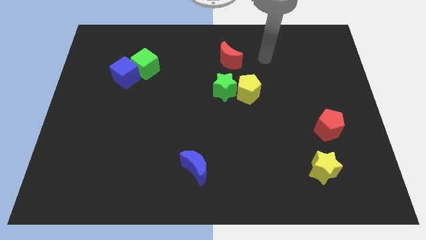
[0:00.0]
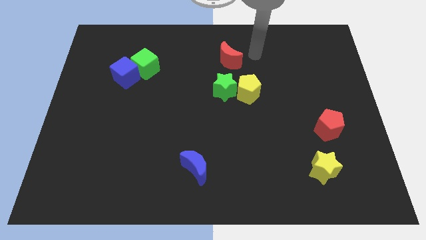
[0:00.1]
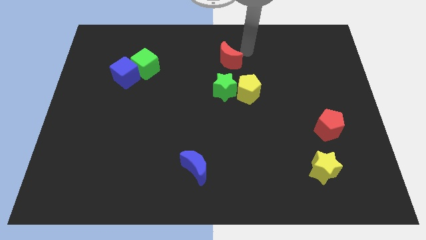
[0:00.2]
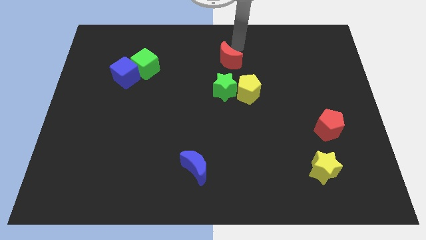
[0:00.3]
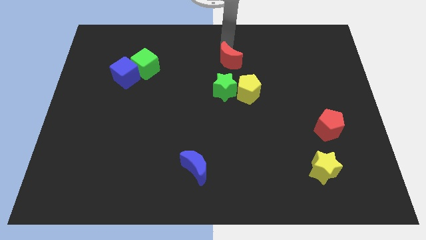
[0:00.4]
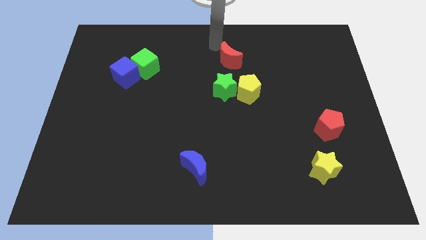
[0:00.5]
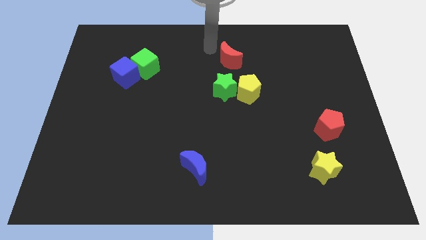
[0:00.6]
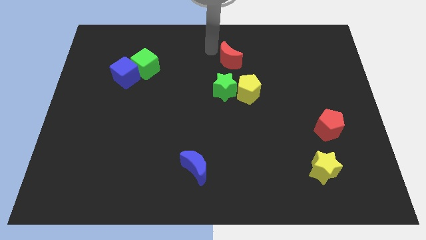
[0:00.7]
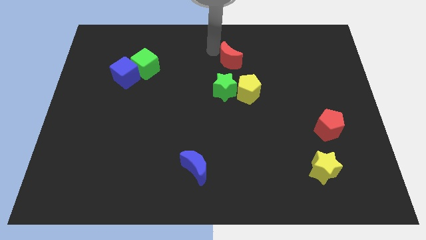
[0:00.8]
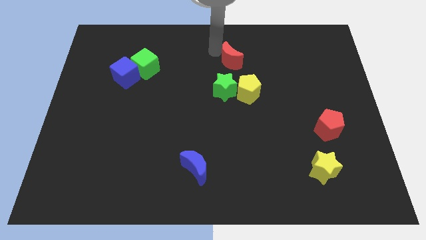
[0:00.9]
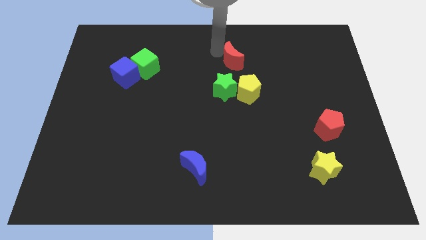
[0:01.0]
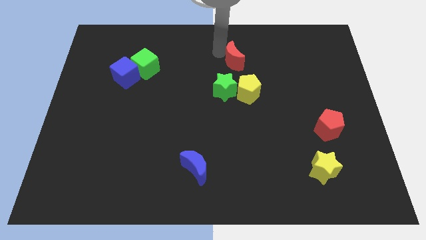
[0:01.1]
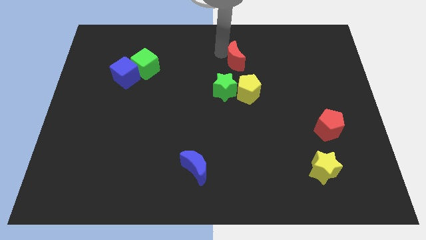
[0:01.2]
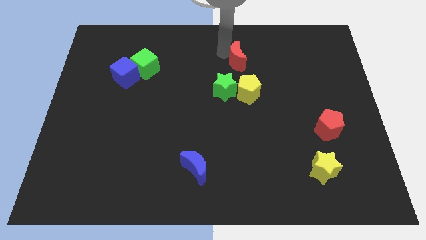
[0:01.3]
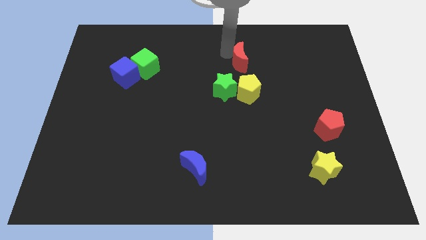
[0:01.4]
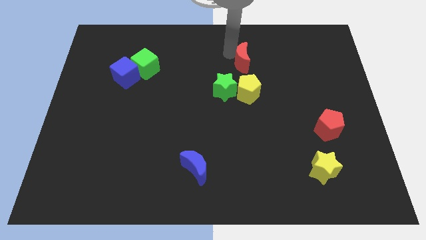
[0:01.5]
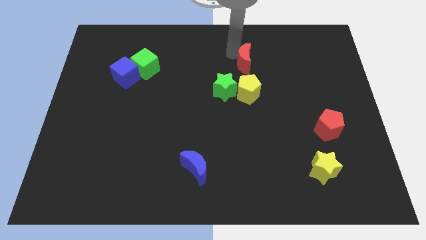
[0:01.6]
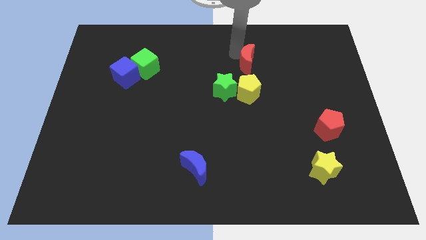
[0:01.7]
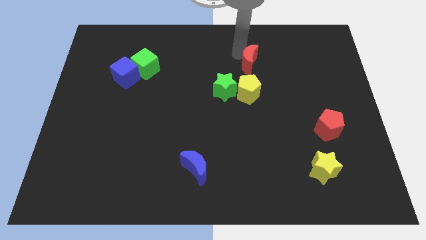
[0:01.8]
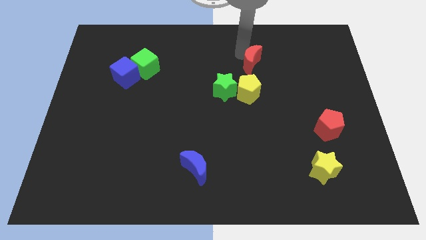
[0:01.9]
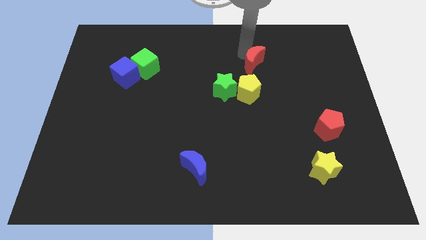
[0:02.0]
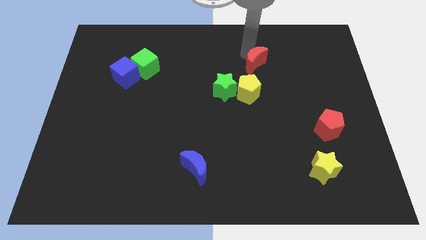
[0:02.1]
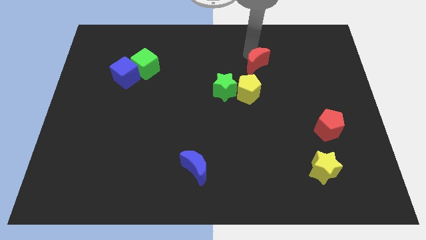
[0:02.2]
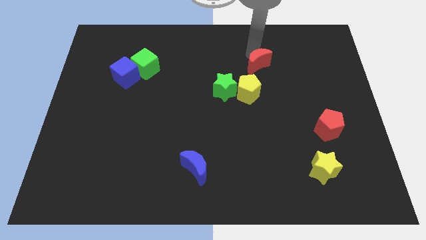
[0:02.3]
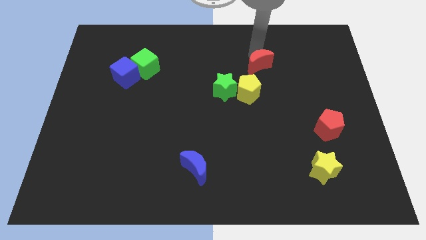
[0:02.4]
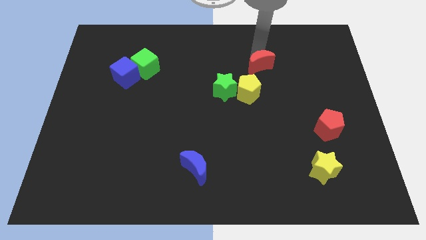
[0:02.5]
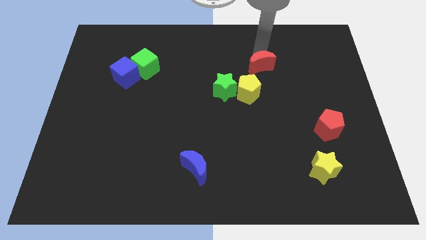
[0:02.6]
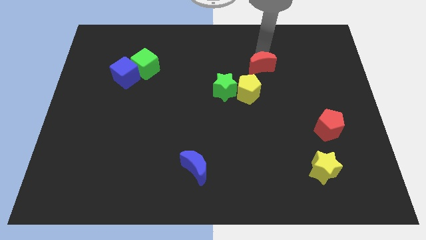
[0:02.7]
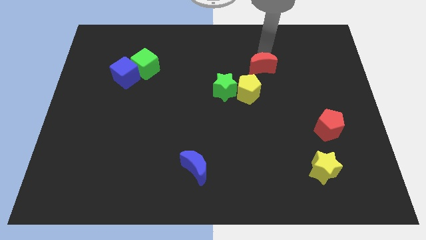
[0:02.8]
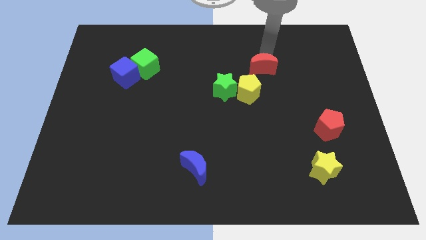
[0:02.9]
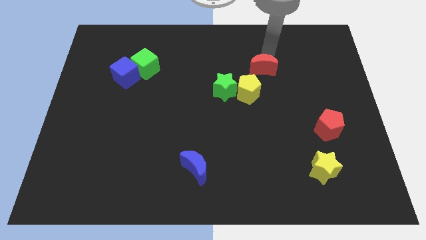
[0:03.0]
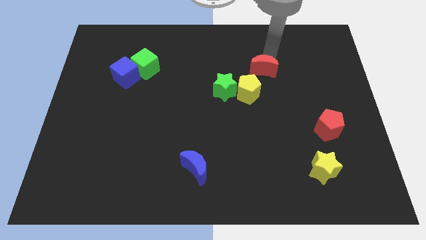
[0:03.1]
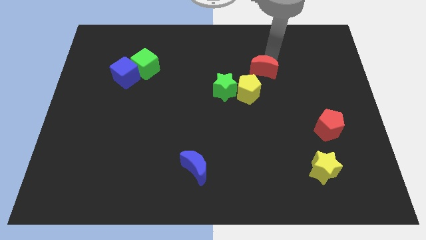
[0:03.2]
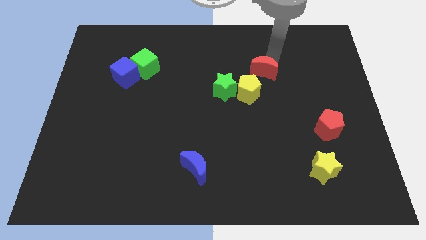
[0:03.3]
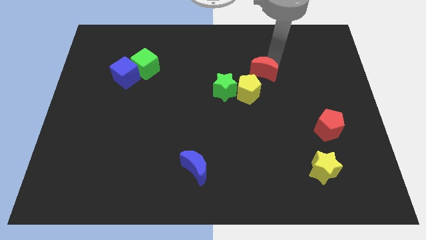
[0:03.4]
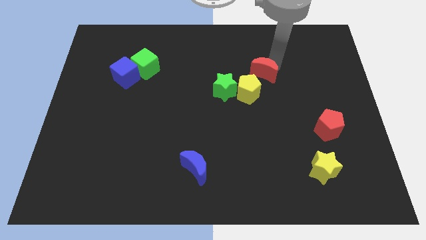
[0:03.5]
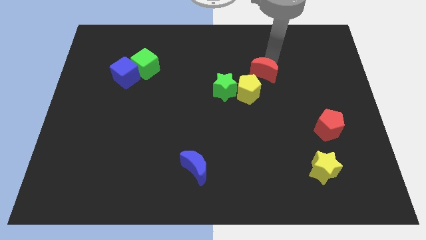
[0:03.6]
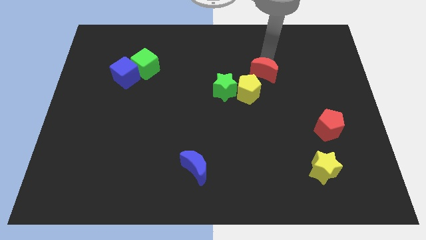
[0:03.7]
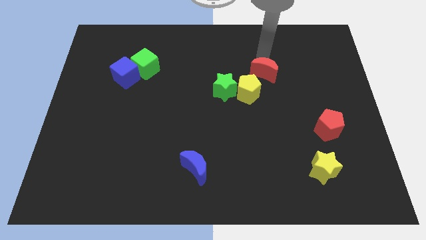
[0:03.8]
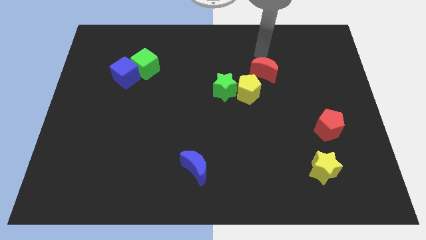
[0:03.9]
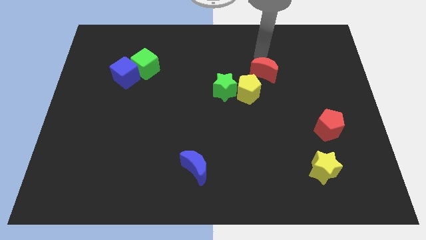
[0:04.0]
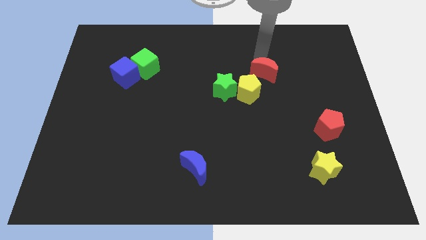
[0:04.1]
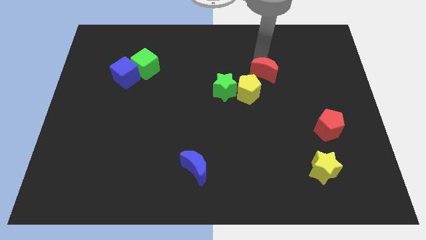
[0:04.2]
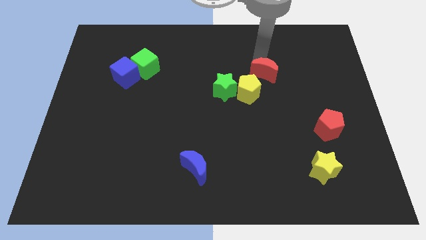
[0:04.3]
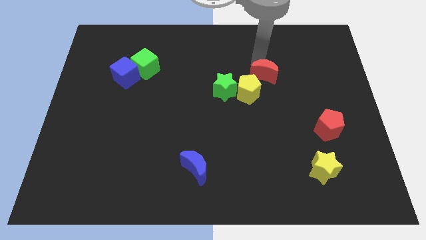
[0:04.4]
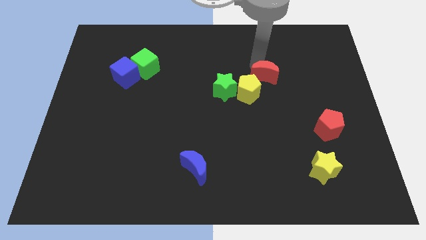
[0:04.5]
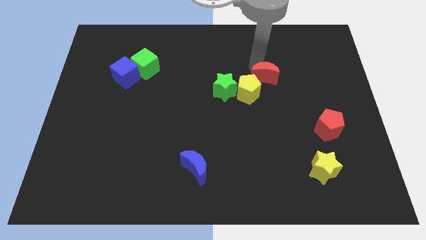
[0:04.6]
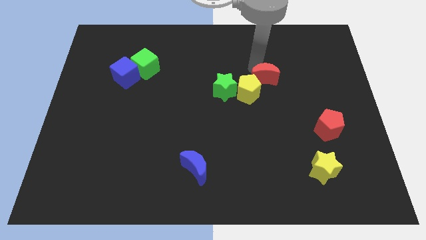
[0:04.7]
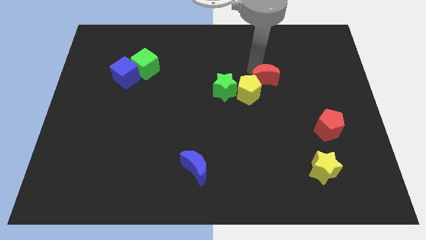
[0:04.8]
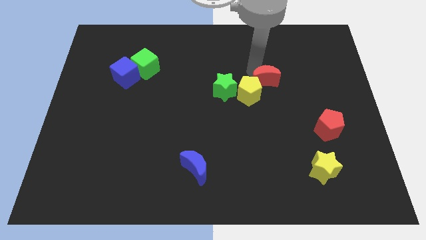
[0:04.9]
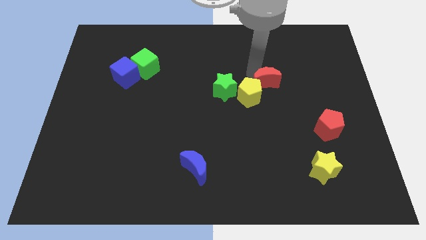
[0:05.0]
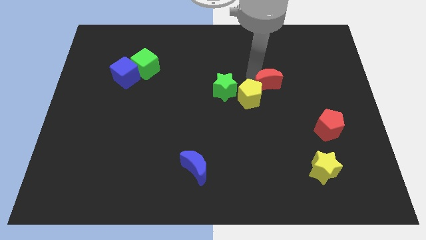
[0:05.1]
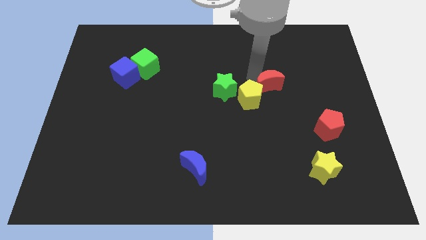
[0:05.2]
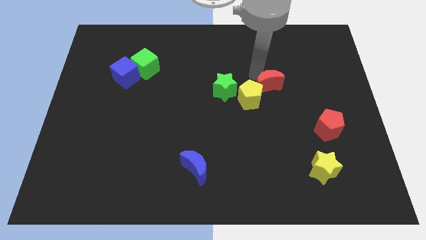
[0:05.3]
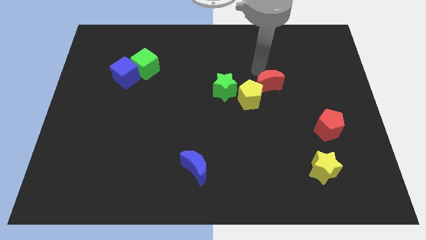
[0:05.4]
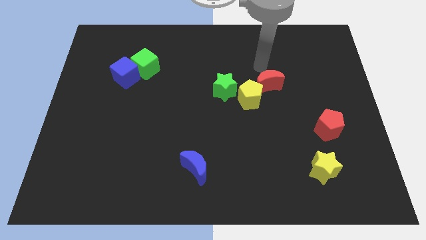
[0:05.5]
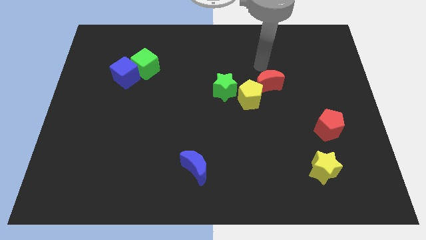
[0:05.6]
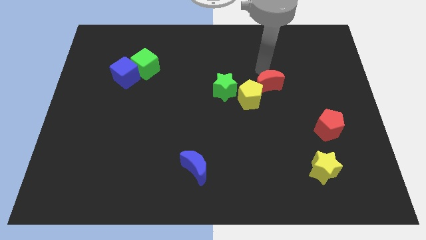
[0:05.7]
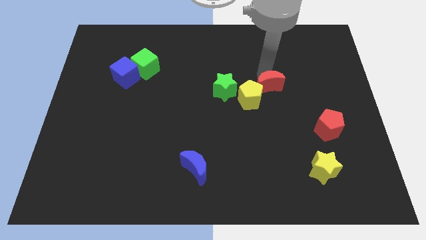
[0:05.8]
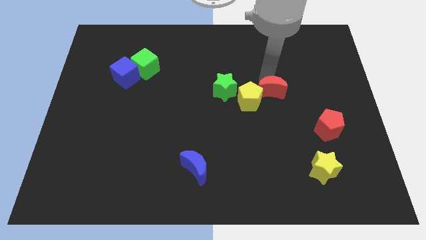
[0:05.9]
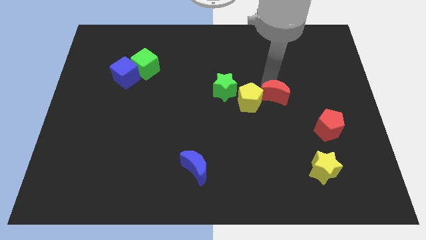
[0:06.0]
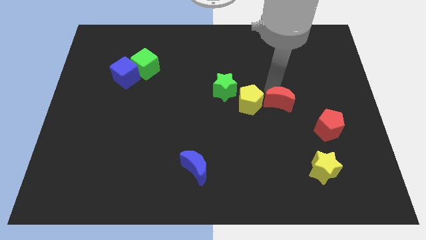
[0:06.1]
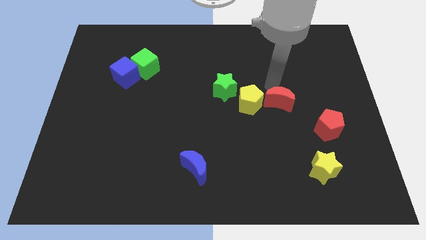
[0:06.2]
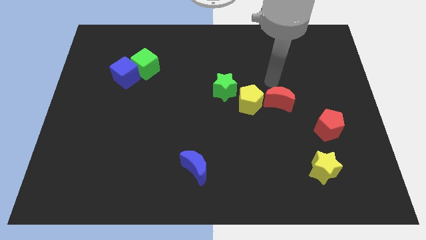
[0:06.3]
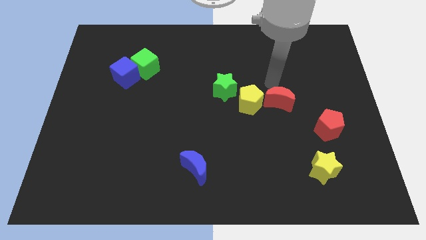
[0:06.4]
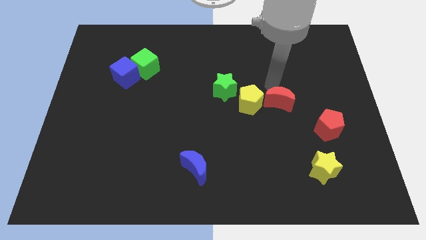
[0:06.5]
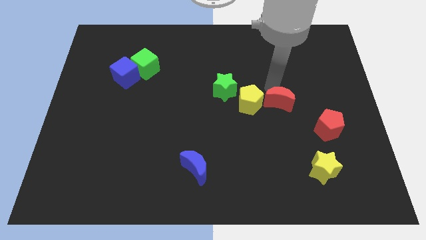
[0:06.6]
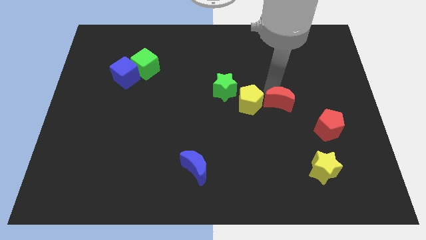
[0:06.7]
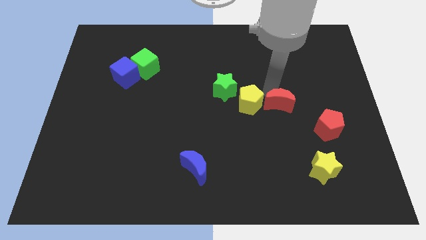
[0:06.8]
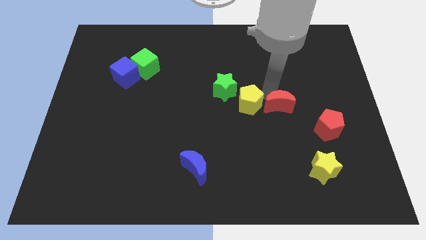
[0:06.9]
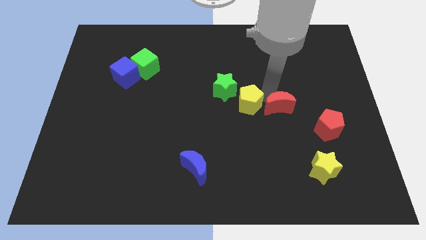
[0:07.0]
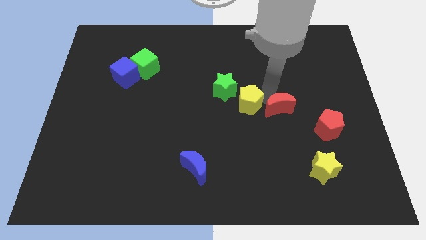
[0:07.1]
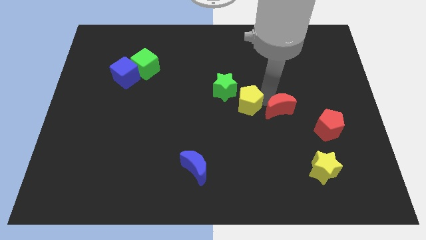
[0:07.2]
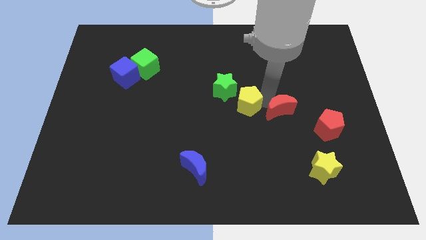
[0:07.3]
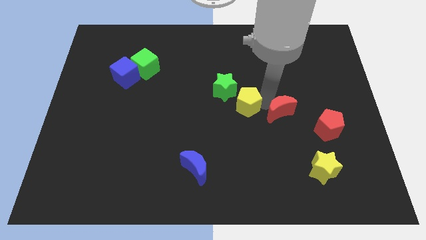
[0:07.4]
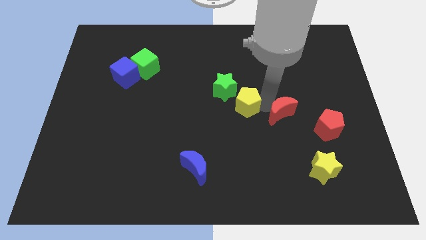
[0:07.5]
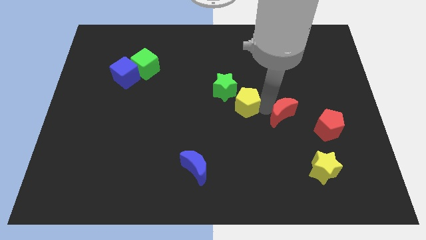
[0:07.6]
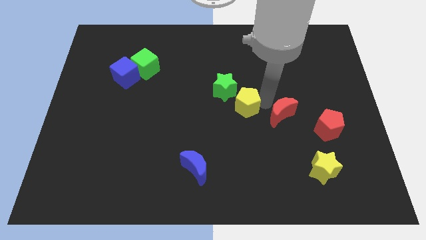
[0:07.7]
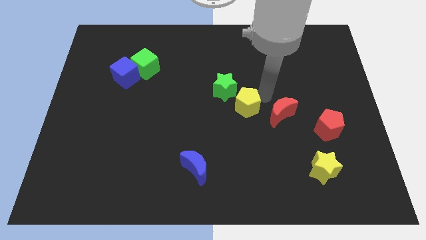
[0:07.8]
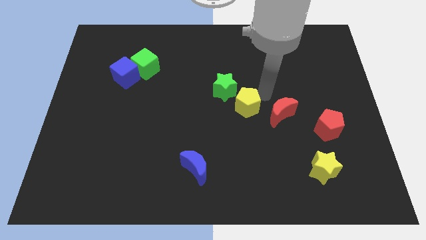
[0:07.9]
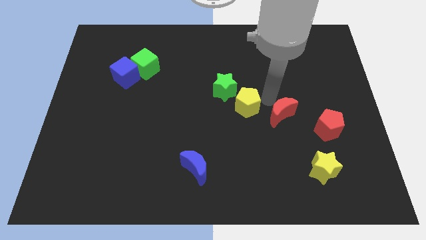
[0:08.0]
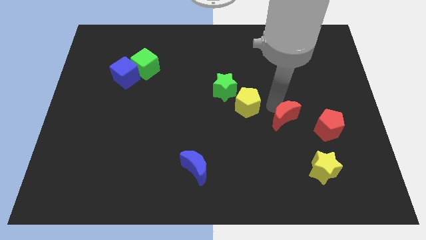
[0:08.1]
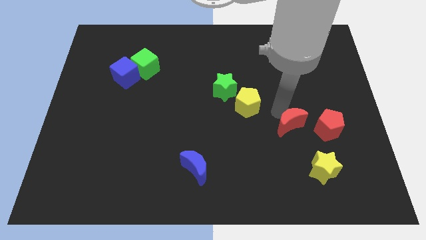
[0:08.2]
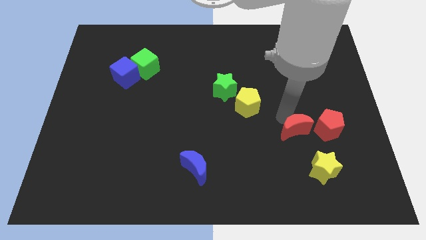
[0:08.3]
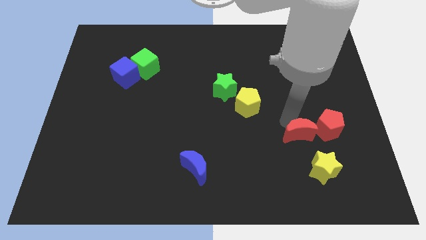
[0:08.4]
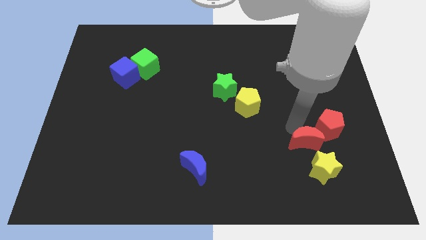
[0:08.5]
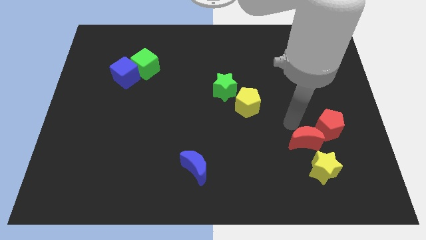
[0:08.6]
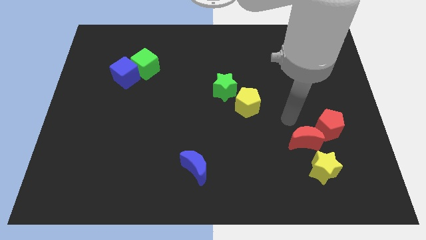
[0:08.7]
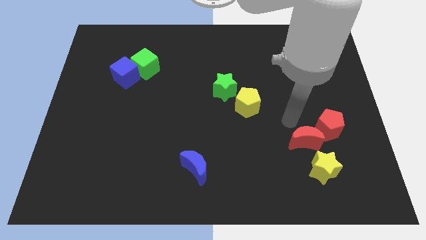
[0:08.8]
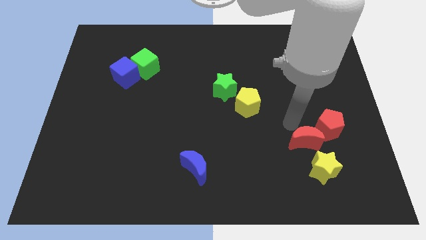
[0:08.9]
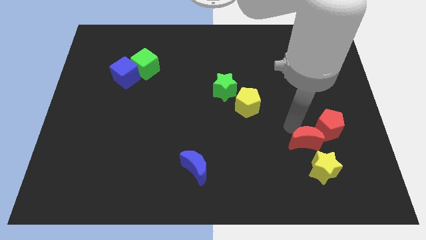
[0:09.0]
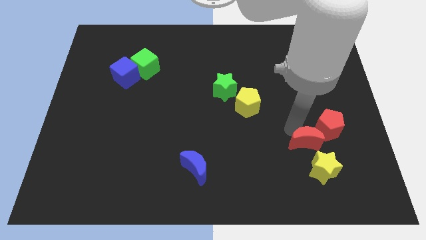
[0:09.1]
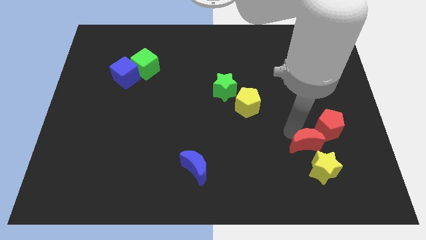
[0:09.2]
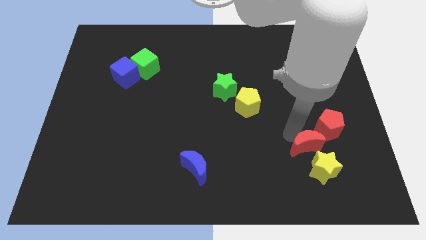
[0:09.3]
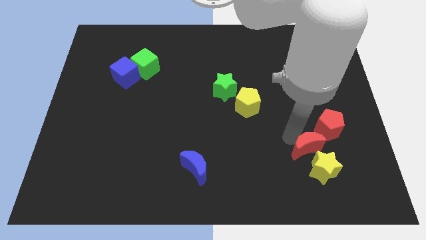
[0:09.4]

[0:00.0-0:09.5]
put the red moon to the yellow star
